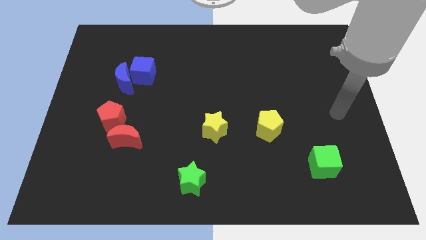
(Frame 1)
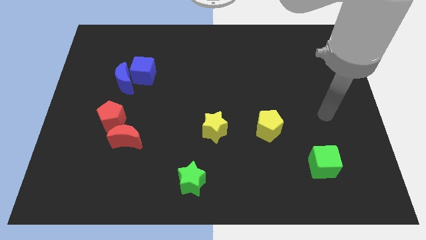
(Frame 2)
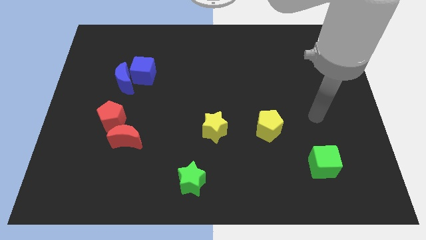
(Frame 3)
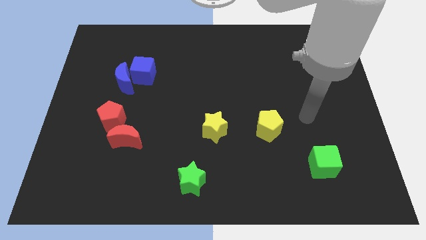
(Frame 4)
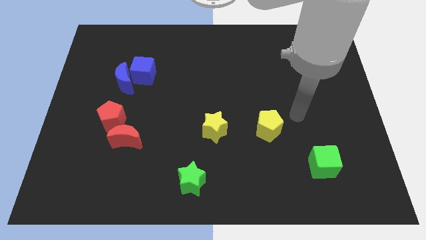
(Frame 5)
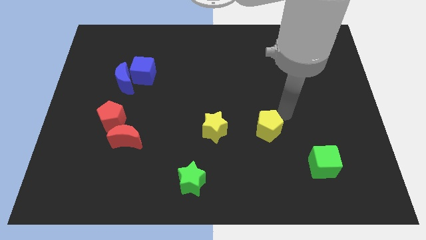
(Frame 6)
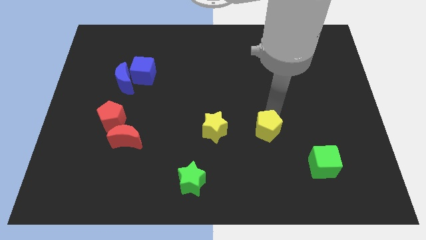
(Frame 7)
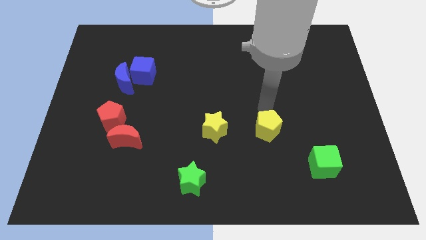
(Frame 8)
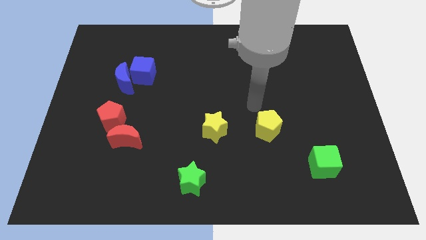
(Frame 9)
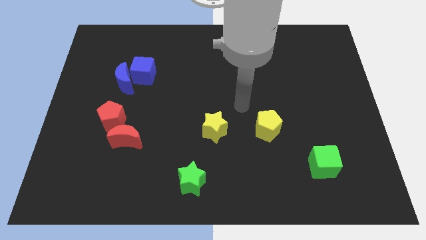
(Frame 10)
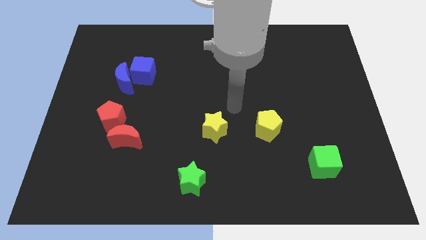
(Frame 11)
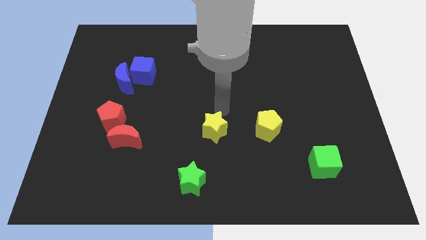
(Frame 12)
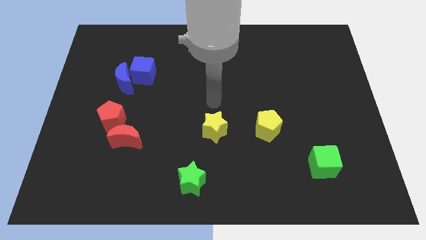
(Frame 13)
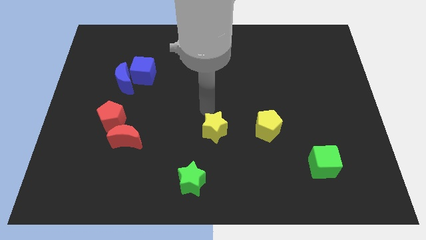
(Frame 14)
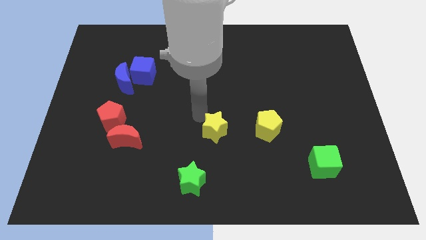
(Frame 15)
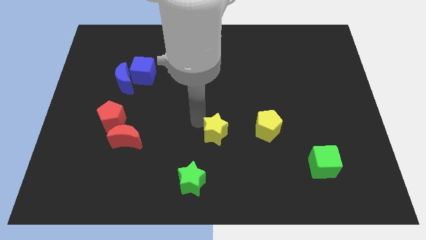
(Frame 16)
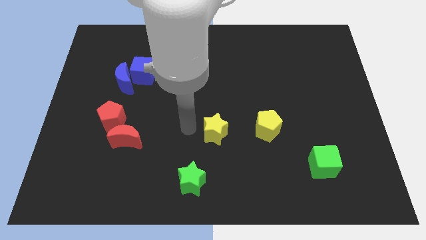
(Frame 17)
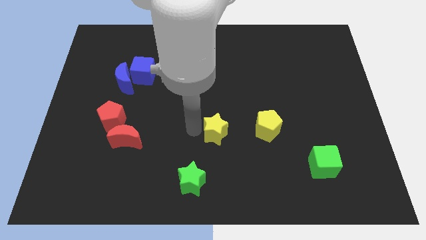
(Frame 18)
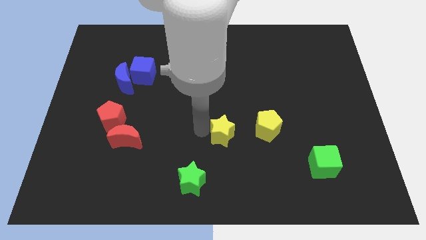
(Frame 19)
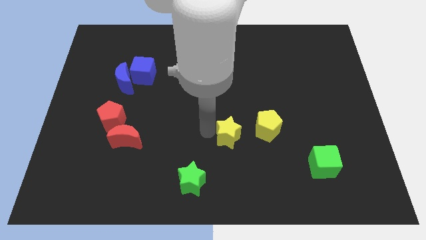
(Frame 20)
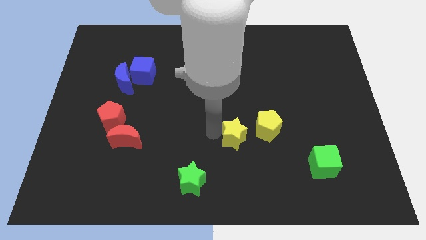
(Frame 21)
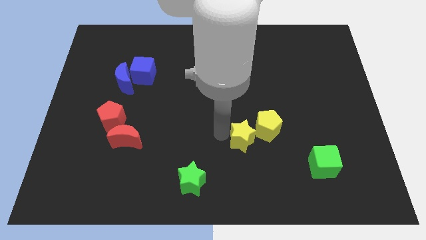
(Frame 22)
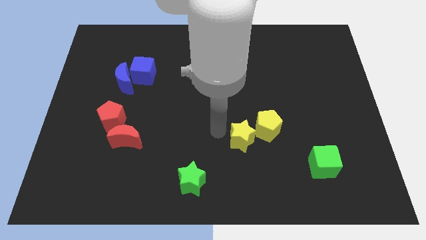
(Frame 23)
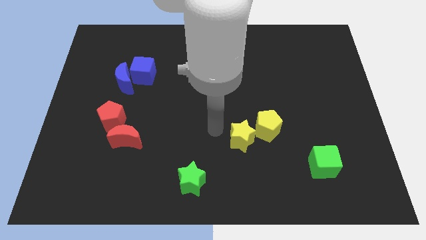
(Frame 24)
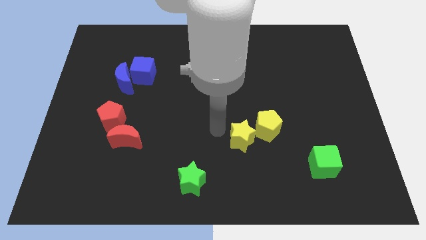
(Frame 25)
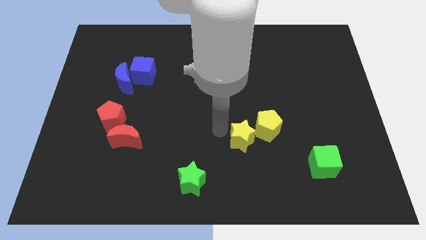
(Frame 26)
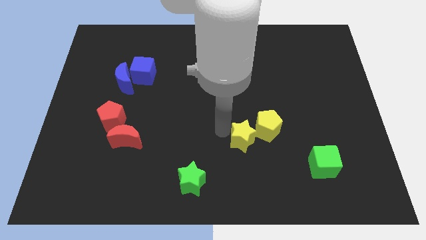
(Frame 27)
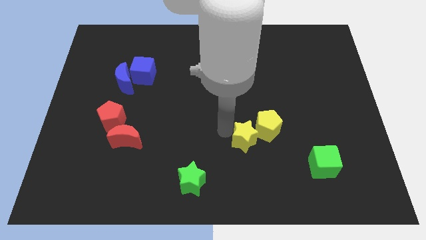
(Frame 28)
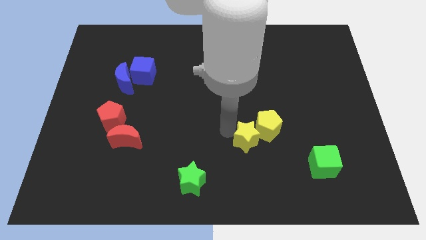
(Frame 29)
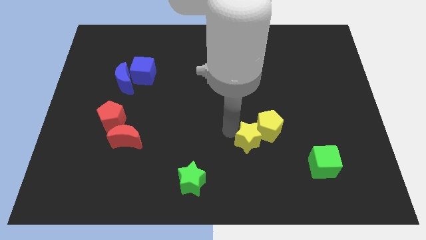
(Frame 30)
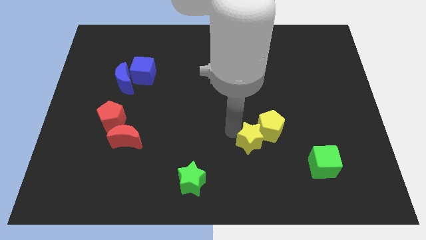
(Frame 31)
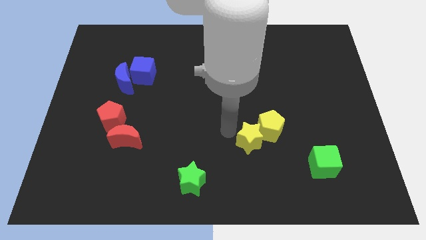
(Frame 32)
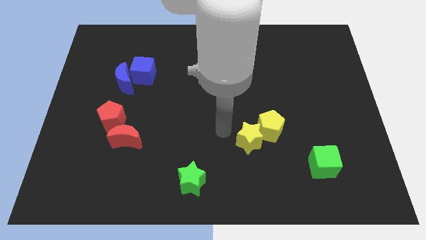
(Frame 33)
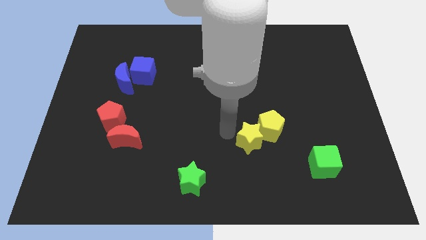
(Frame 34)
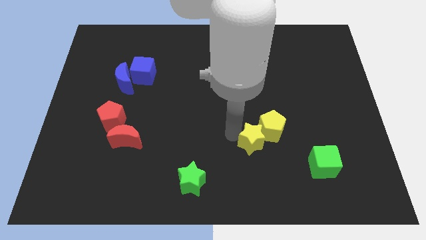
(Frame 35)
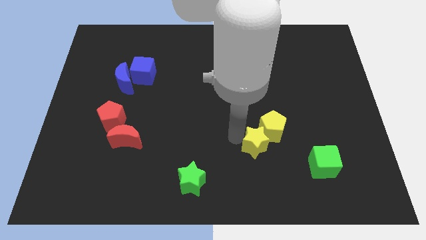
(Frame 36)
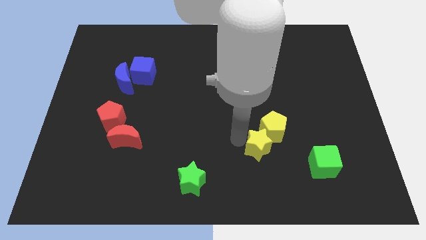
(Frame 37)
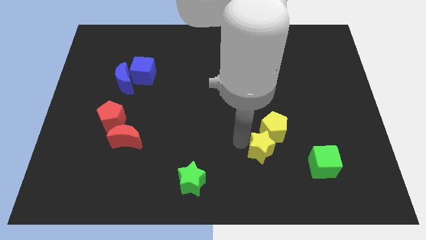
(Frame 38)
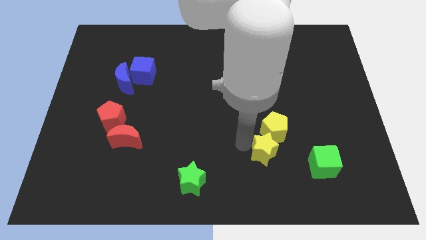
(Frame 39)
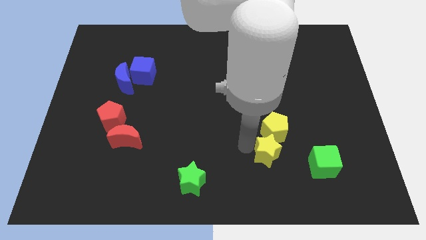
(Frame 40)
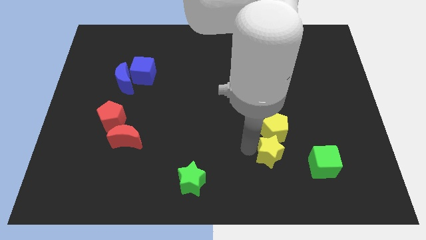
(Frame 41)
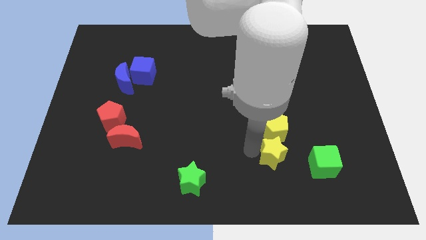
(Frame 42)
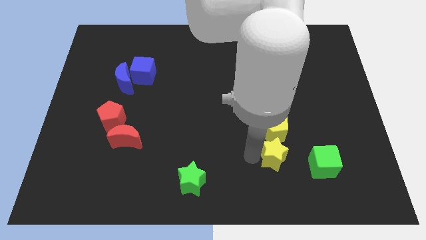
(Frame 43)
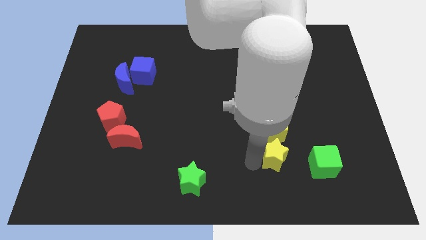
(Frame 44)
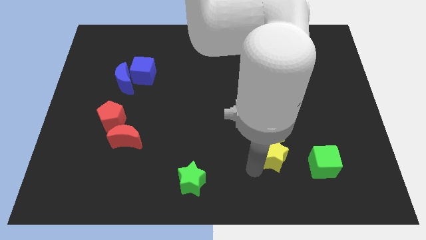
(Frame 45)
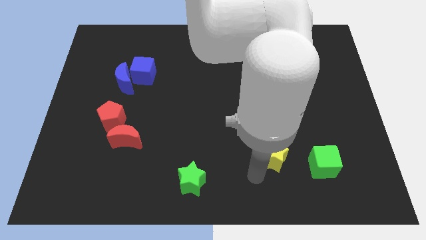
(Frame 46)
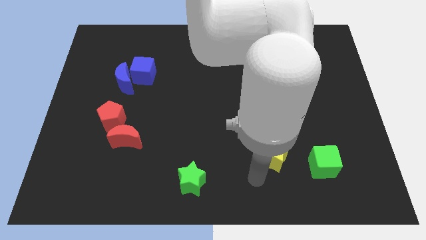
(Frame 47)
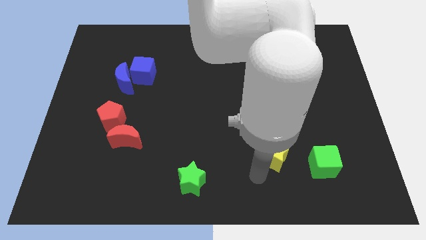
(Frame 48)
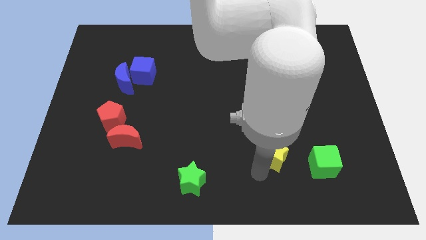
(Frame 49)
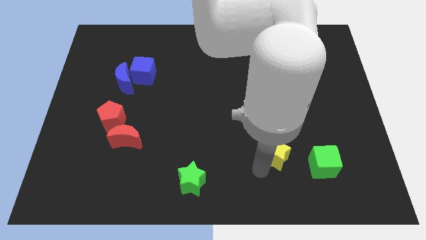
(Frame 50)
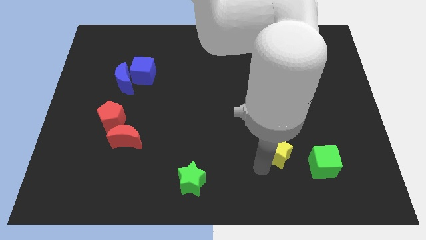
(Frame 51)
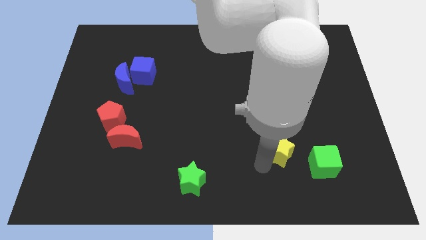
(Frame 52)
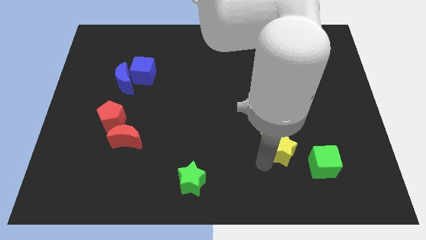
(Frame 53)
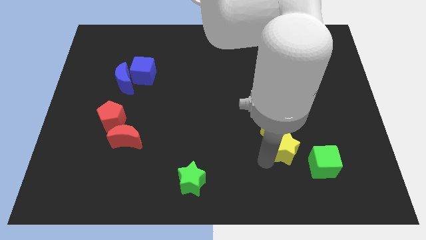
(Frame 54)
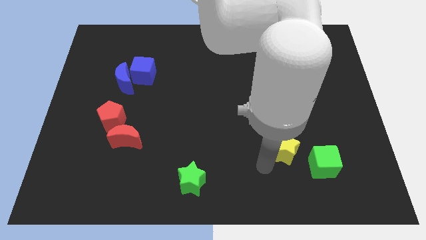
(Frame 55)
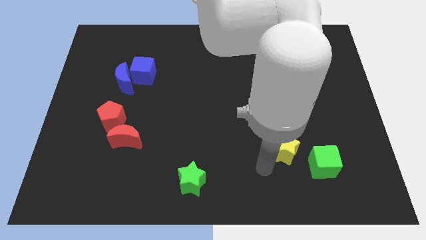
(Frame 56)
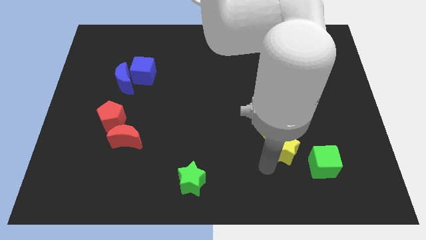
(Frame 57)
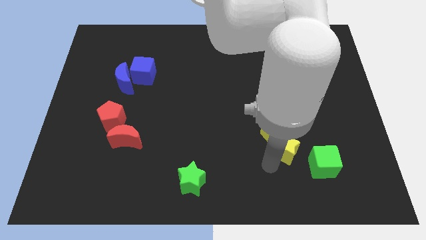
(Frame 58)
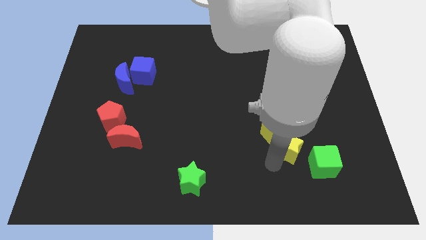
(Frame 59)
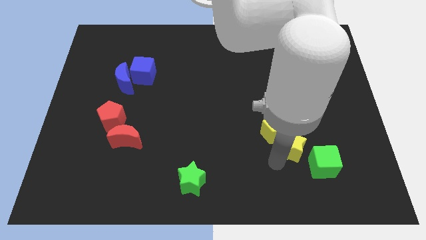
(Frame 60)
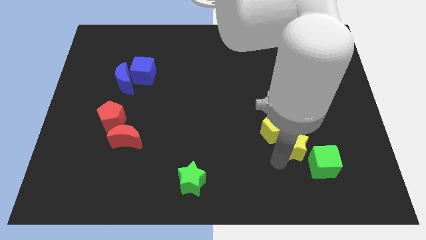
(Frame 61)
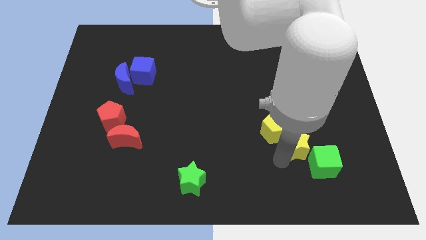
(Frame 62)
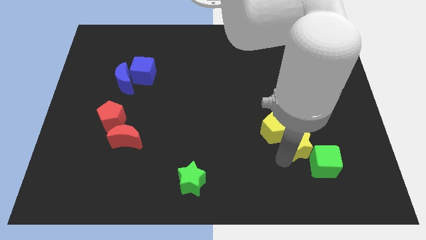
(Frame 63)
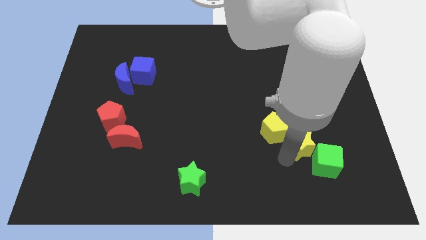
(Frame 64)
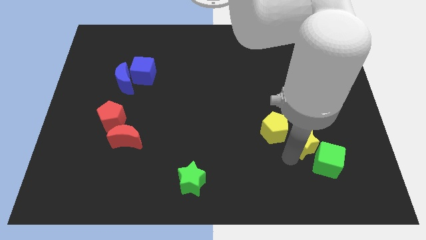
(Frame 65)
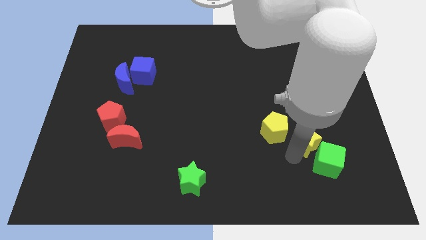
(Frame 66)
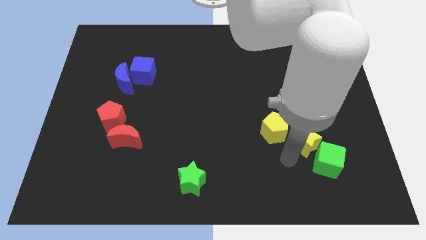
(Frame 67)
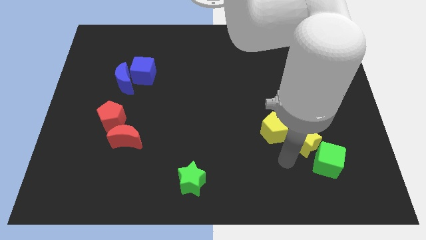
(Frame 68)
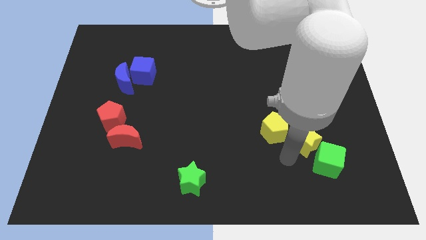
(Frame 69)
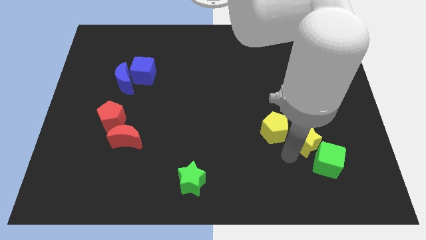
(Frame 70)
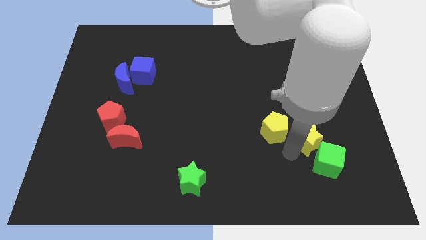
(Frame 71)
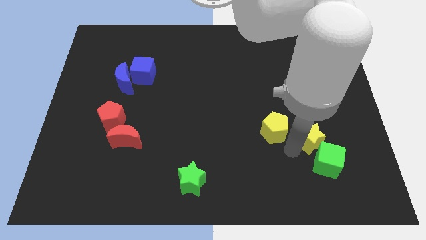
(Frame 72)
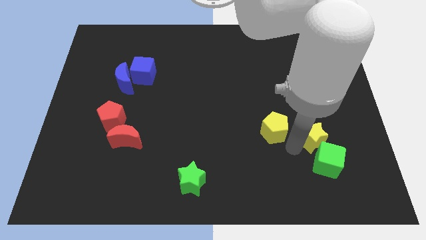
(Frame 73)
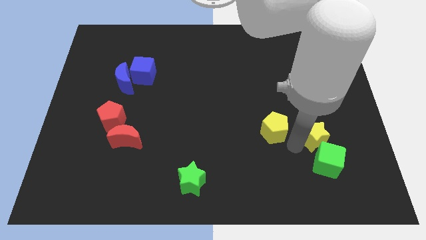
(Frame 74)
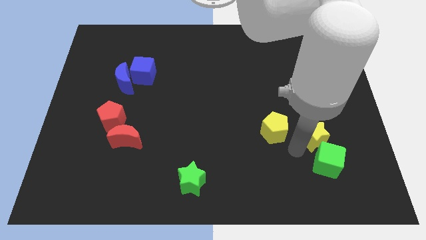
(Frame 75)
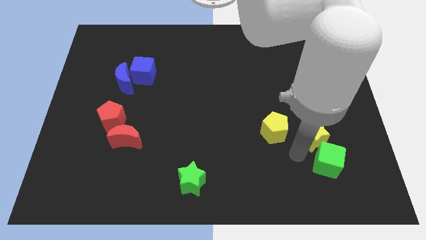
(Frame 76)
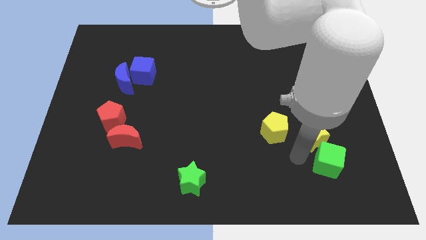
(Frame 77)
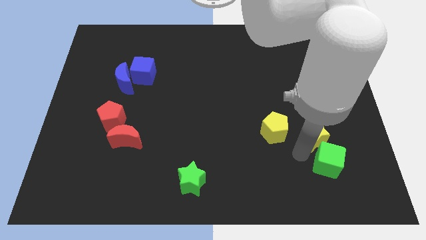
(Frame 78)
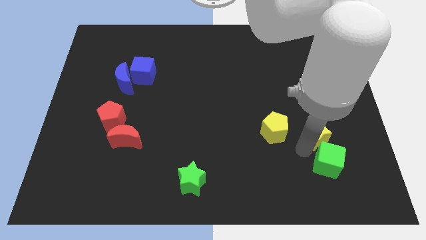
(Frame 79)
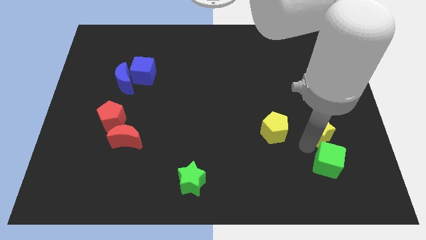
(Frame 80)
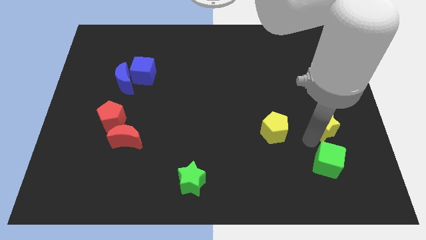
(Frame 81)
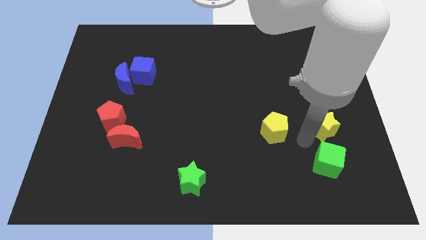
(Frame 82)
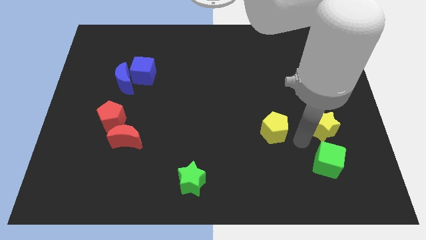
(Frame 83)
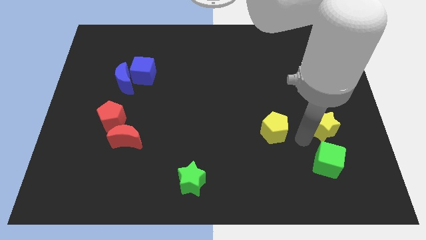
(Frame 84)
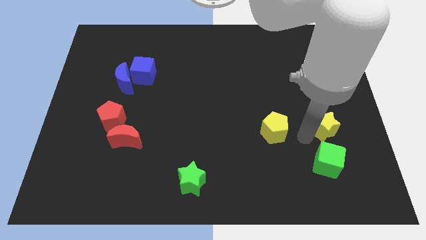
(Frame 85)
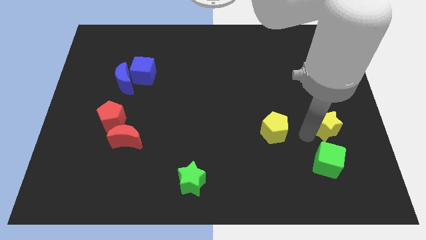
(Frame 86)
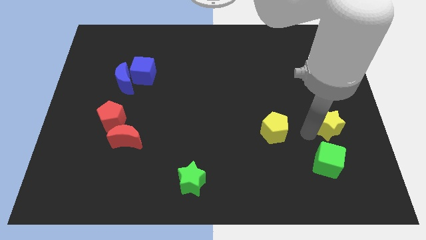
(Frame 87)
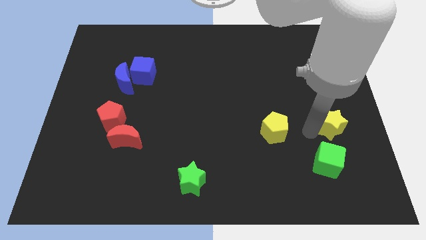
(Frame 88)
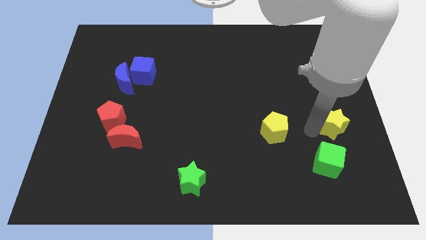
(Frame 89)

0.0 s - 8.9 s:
move the yellow star to the right side of the board
